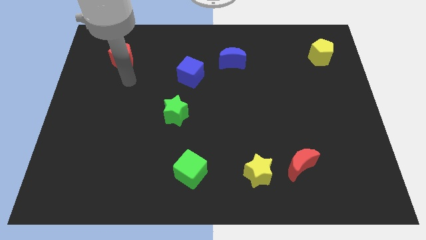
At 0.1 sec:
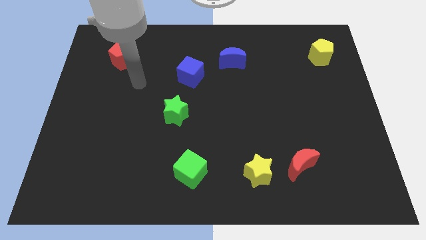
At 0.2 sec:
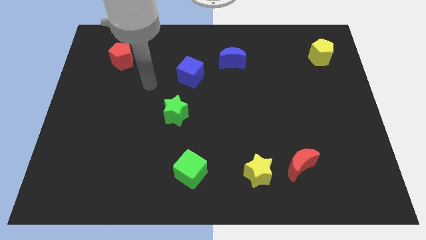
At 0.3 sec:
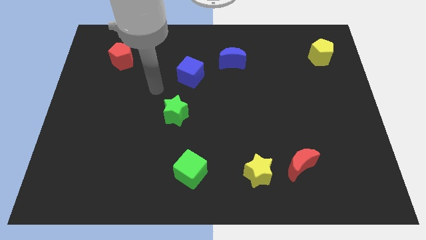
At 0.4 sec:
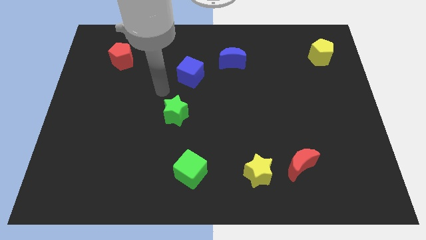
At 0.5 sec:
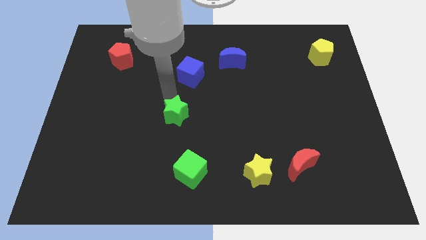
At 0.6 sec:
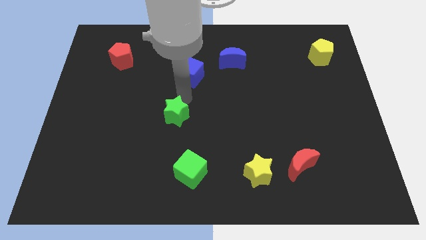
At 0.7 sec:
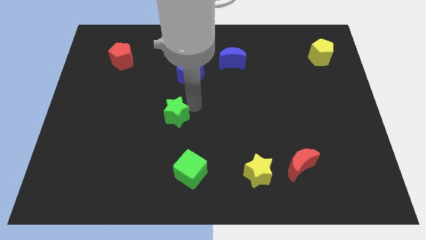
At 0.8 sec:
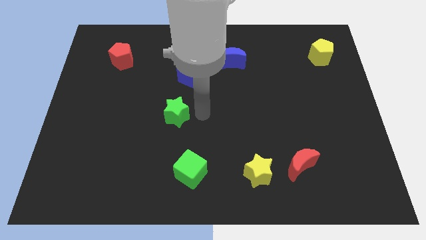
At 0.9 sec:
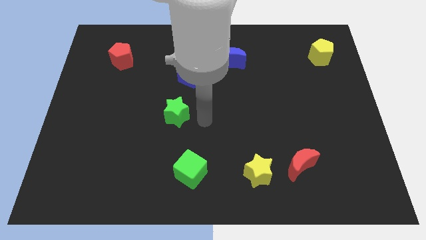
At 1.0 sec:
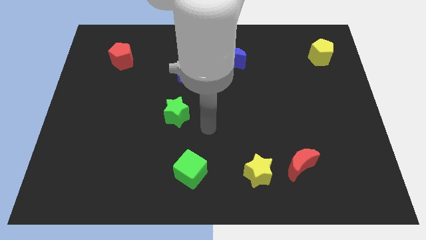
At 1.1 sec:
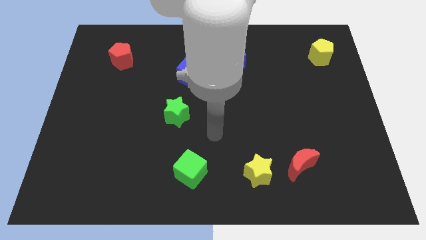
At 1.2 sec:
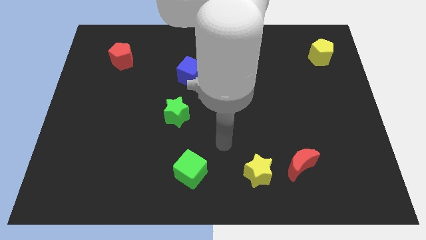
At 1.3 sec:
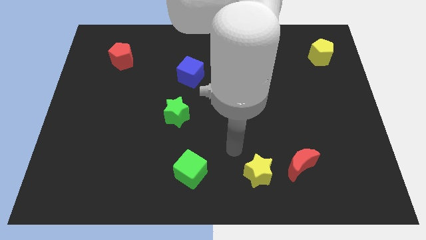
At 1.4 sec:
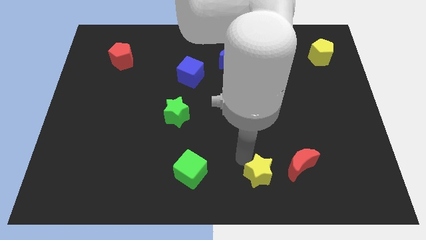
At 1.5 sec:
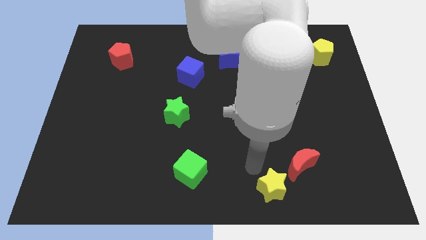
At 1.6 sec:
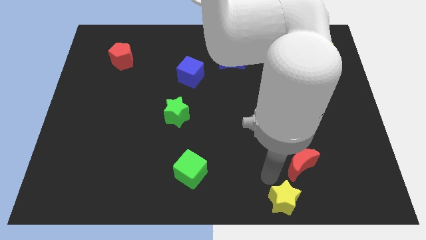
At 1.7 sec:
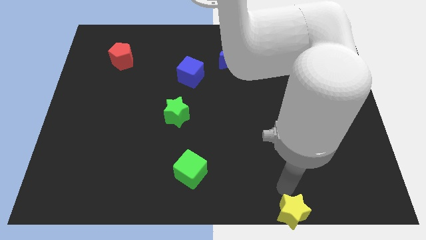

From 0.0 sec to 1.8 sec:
pull the red moon apart from the yellow star

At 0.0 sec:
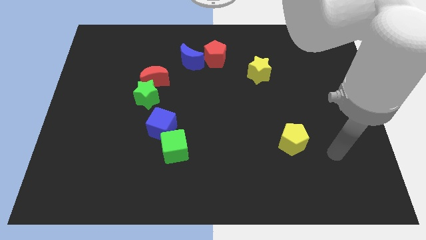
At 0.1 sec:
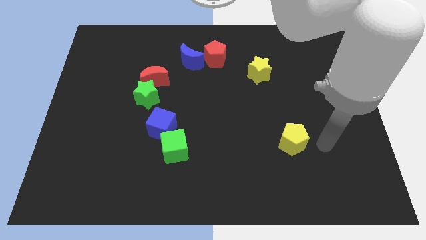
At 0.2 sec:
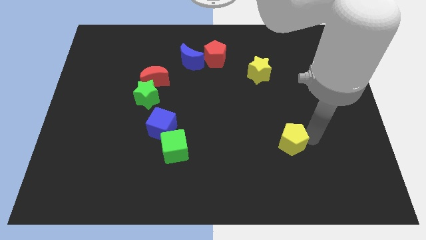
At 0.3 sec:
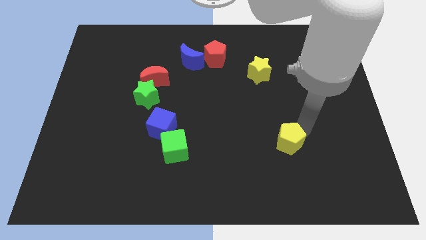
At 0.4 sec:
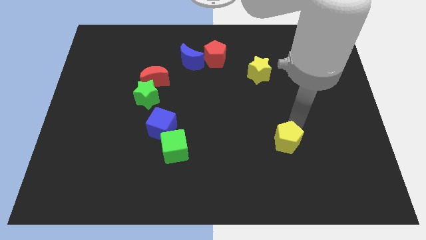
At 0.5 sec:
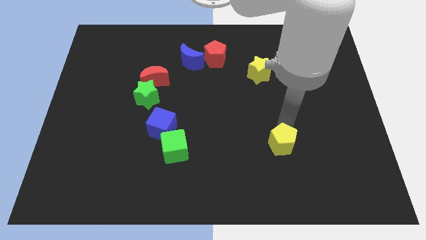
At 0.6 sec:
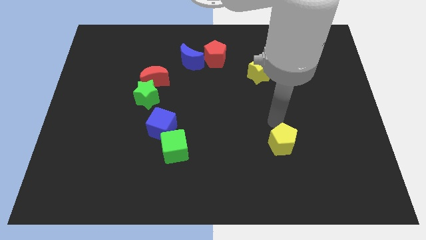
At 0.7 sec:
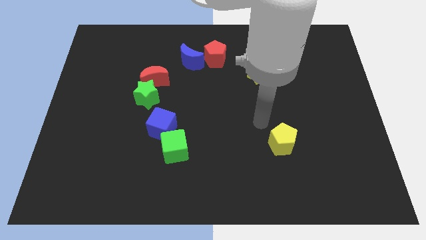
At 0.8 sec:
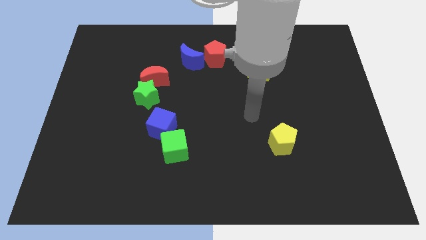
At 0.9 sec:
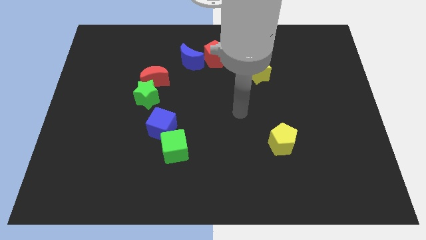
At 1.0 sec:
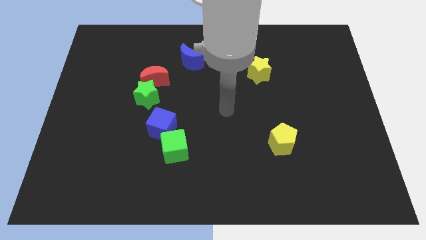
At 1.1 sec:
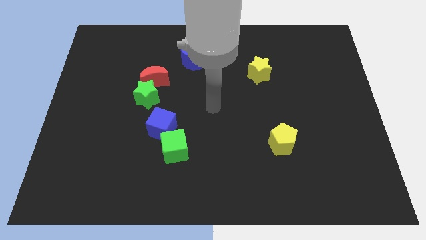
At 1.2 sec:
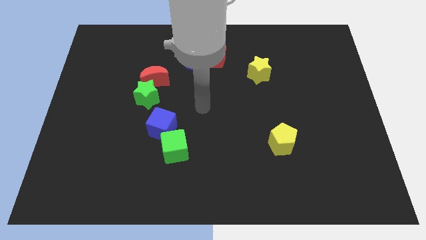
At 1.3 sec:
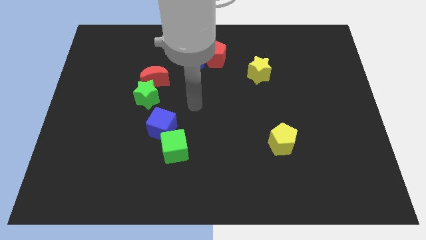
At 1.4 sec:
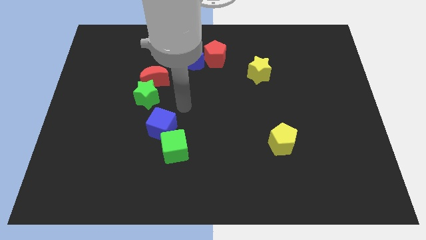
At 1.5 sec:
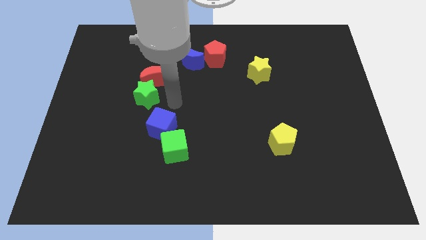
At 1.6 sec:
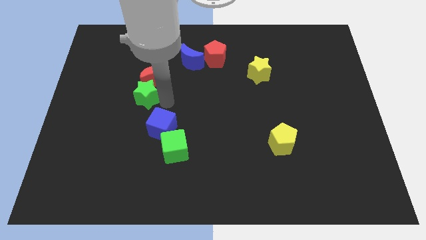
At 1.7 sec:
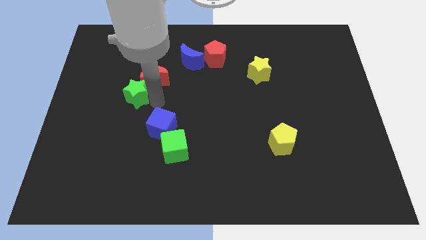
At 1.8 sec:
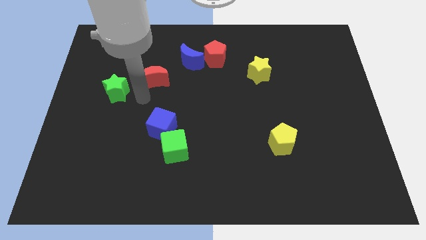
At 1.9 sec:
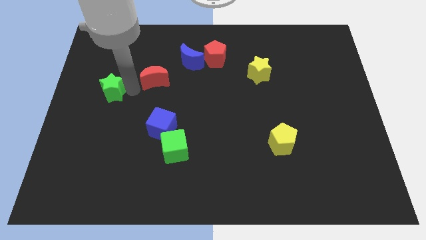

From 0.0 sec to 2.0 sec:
pull the red moon apart from the green star

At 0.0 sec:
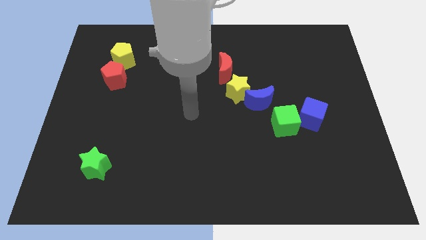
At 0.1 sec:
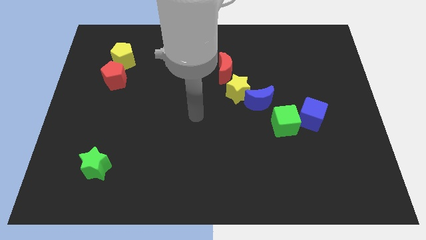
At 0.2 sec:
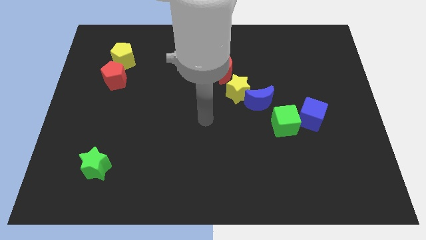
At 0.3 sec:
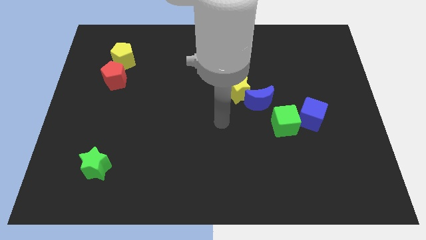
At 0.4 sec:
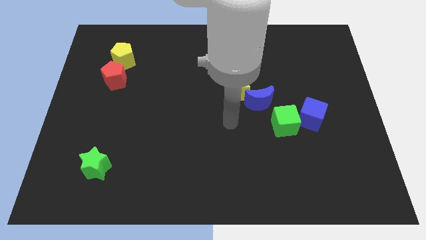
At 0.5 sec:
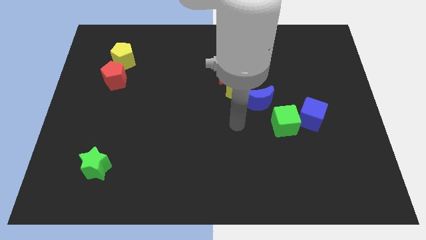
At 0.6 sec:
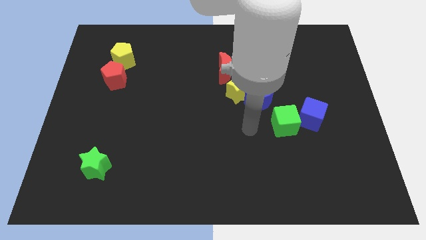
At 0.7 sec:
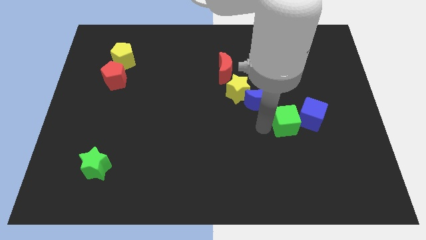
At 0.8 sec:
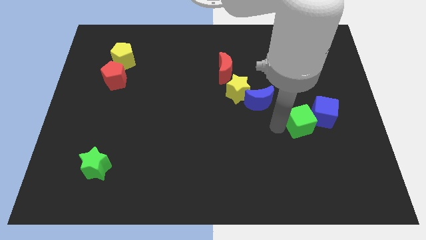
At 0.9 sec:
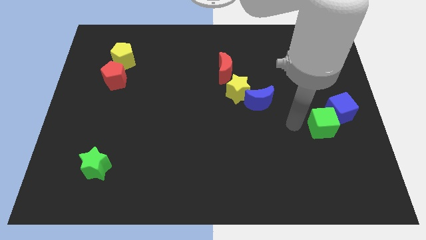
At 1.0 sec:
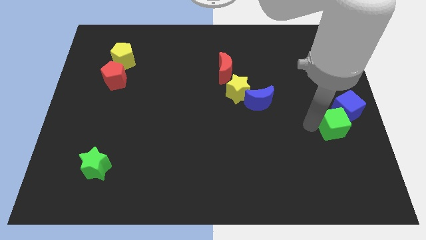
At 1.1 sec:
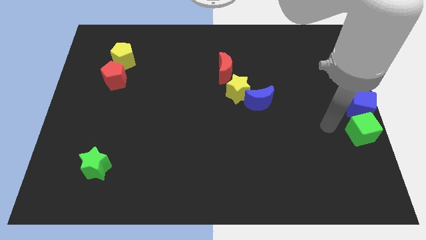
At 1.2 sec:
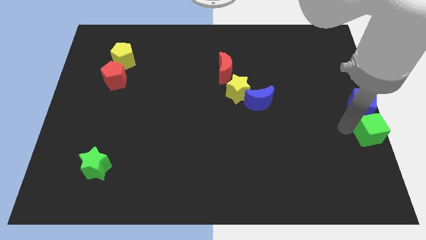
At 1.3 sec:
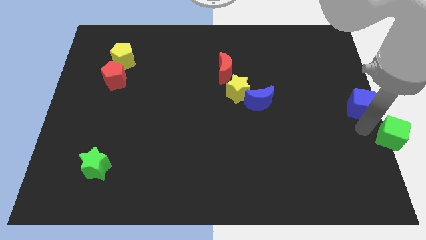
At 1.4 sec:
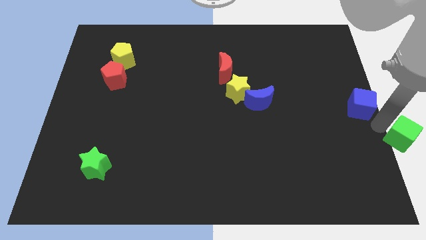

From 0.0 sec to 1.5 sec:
separate the blue cube from the green cube

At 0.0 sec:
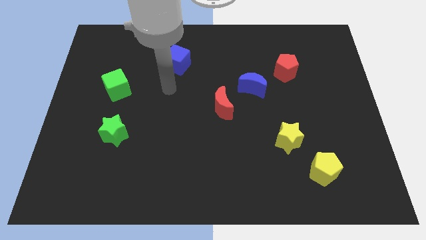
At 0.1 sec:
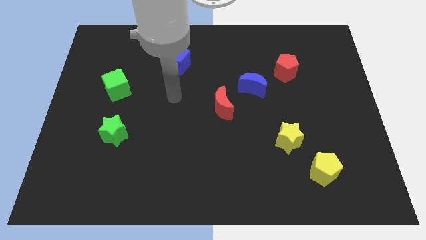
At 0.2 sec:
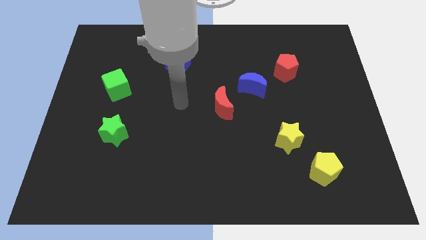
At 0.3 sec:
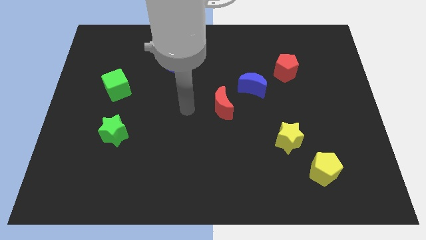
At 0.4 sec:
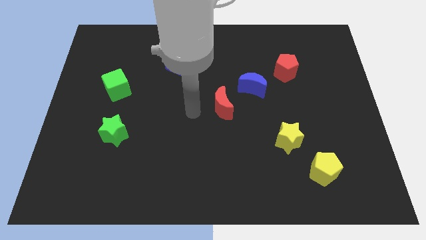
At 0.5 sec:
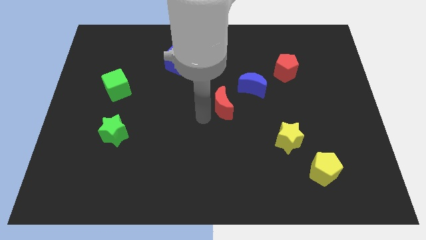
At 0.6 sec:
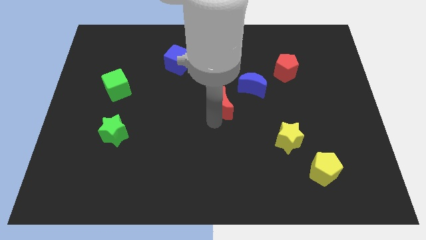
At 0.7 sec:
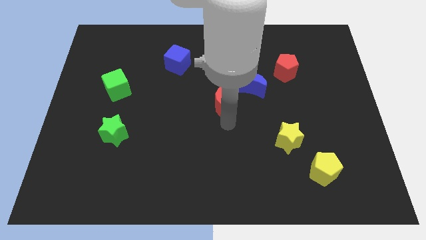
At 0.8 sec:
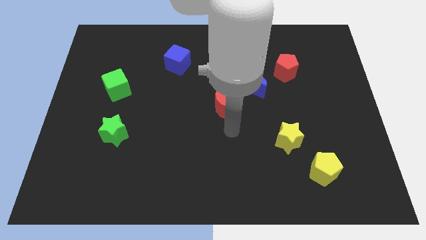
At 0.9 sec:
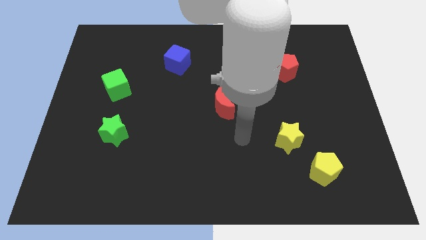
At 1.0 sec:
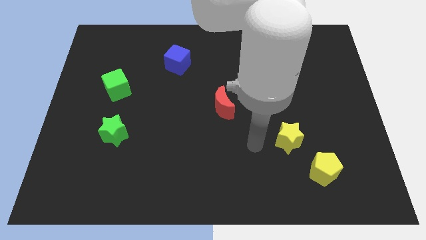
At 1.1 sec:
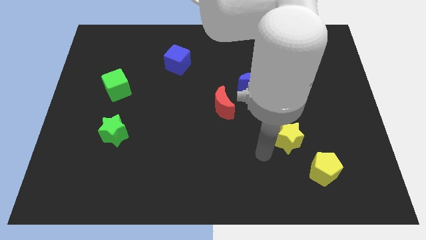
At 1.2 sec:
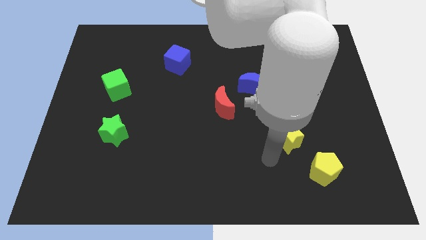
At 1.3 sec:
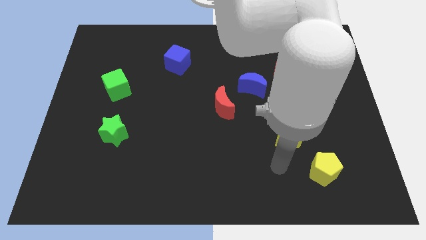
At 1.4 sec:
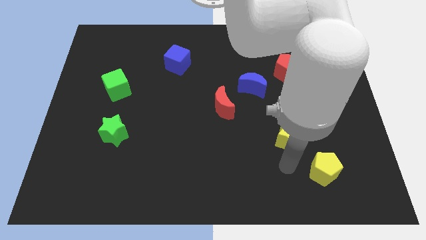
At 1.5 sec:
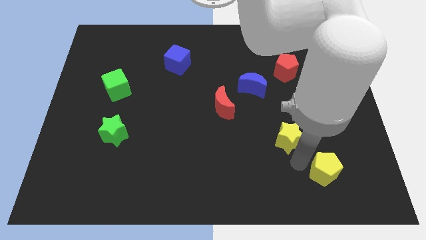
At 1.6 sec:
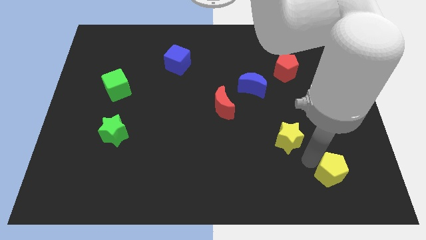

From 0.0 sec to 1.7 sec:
pull the yellow star apart from the yellow pentagon

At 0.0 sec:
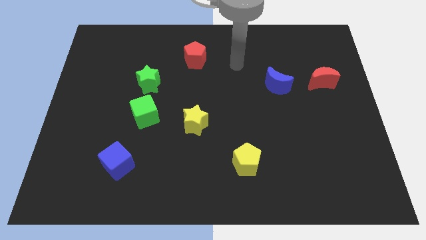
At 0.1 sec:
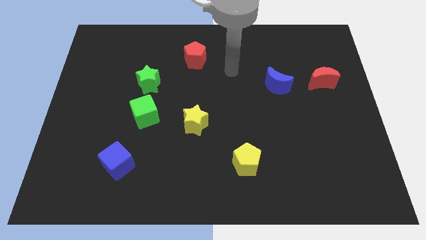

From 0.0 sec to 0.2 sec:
pull the green cube apart from the green star

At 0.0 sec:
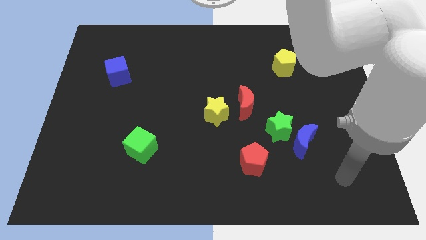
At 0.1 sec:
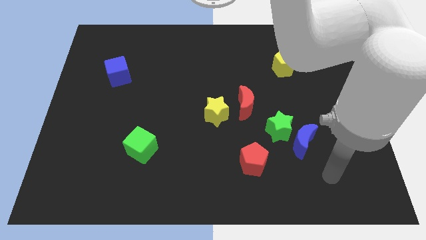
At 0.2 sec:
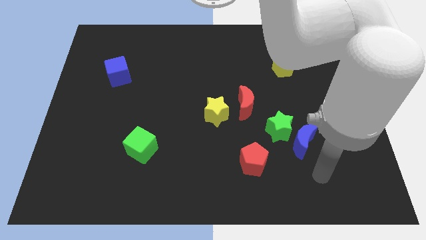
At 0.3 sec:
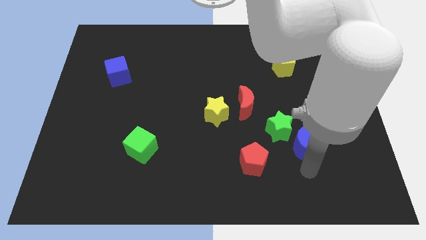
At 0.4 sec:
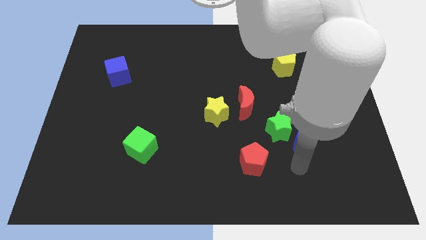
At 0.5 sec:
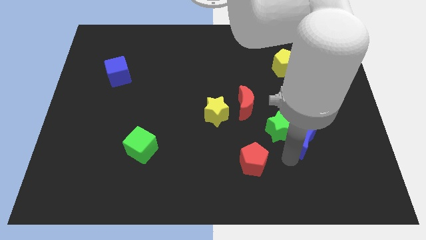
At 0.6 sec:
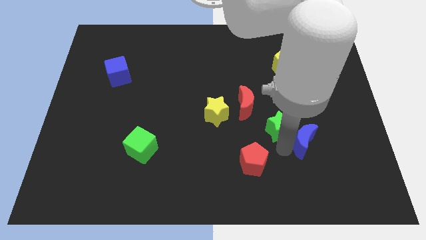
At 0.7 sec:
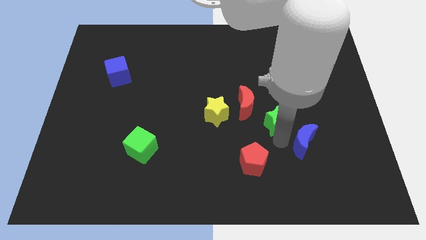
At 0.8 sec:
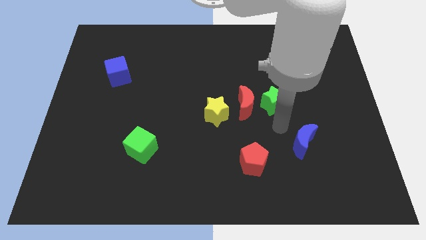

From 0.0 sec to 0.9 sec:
separate the blue moon from the green star

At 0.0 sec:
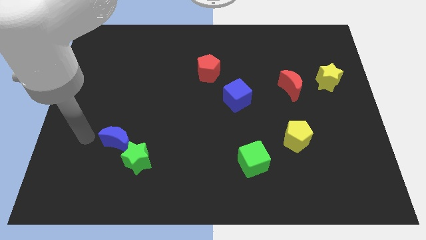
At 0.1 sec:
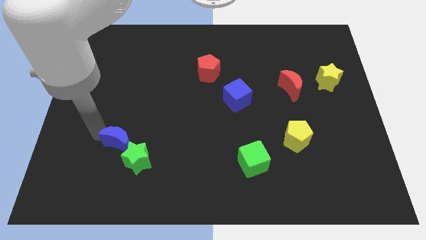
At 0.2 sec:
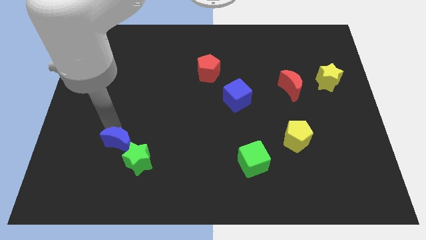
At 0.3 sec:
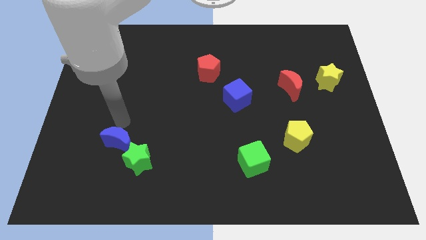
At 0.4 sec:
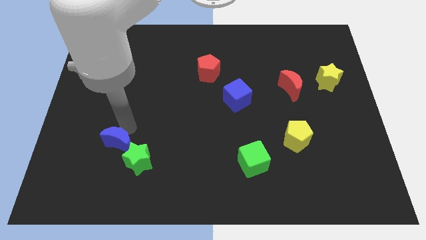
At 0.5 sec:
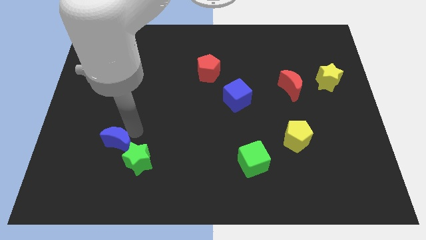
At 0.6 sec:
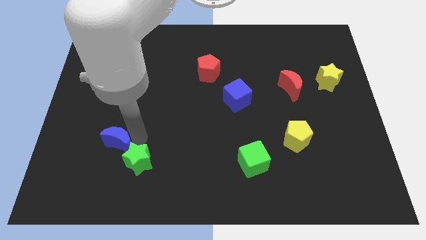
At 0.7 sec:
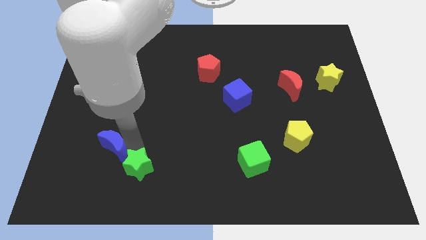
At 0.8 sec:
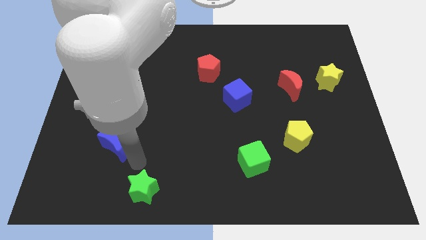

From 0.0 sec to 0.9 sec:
move the blue moon away from the green star

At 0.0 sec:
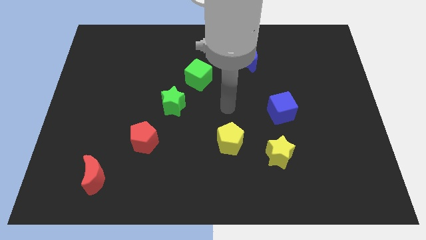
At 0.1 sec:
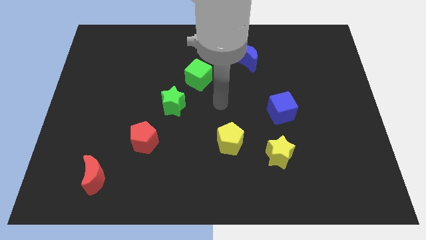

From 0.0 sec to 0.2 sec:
separate the green cube from the green star

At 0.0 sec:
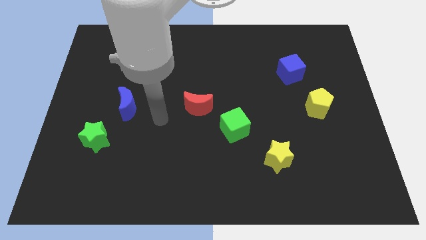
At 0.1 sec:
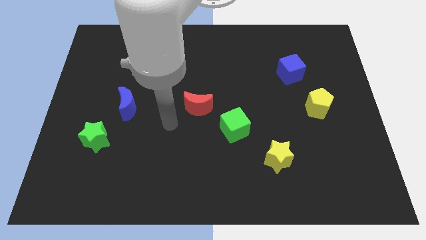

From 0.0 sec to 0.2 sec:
pull the red moon apart from the green cube
